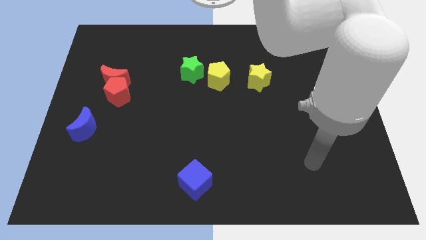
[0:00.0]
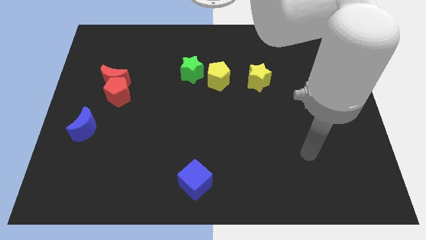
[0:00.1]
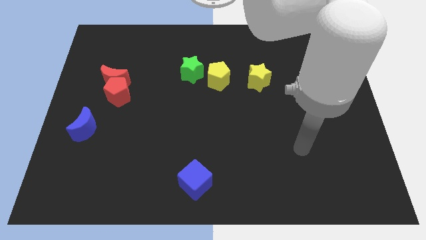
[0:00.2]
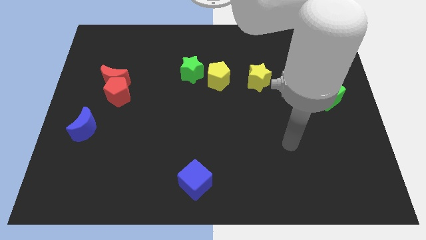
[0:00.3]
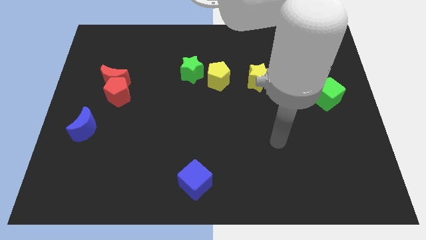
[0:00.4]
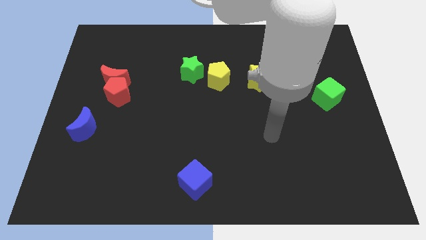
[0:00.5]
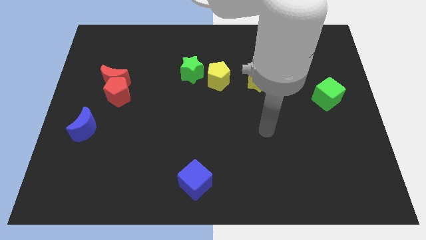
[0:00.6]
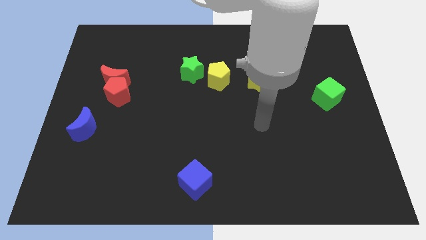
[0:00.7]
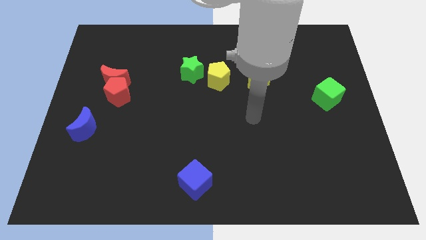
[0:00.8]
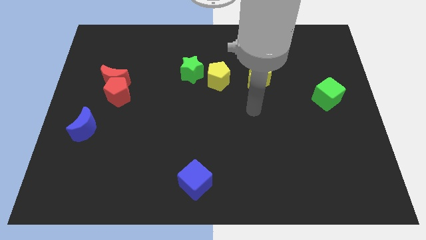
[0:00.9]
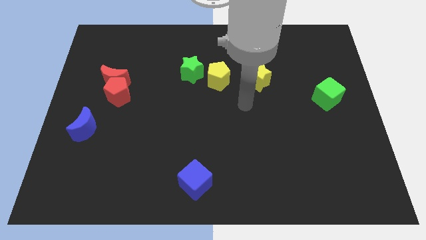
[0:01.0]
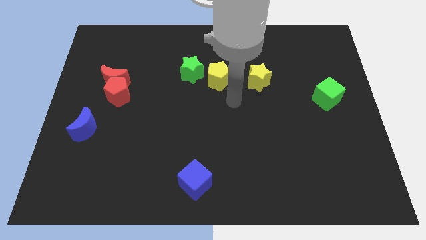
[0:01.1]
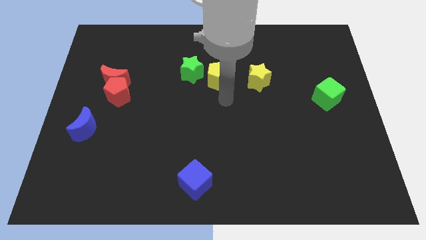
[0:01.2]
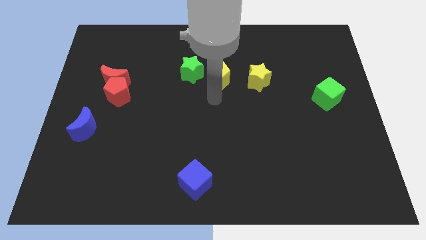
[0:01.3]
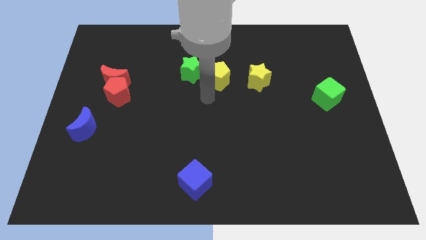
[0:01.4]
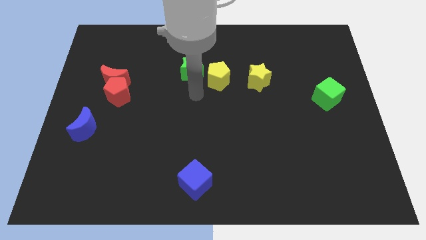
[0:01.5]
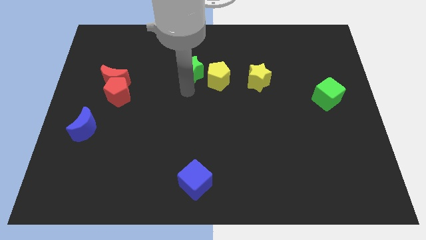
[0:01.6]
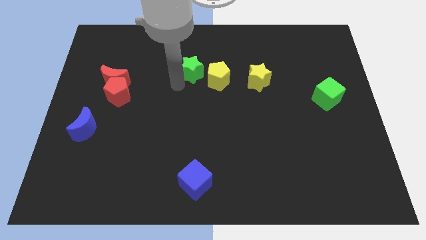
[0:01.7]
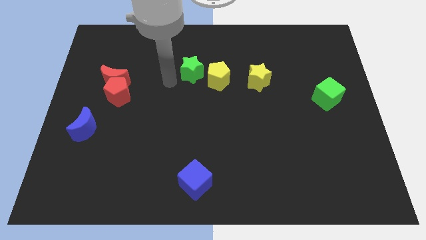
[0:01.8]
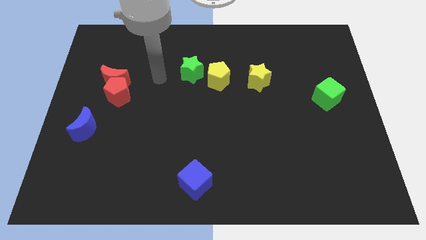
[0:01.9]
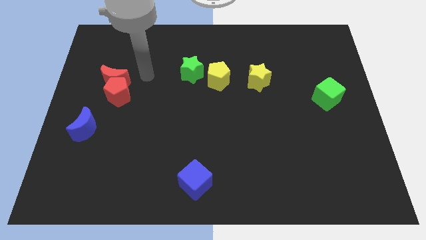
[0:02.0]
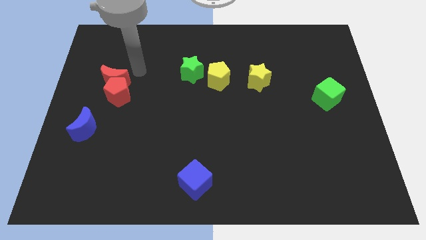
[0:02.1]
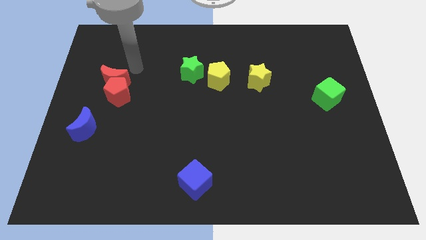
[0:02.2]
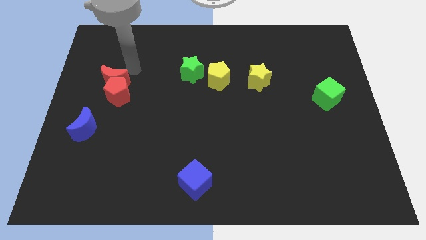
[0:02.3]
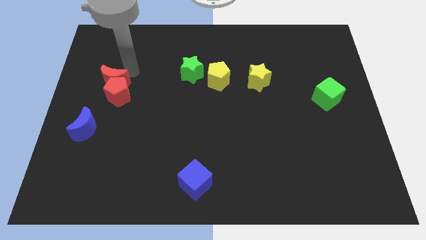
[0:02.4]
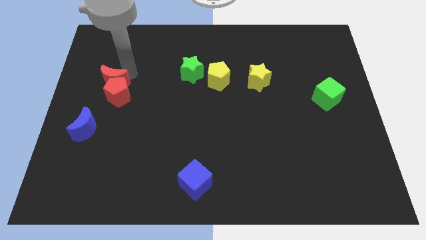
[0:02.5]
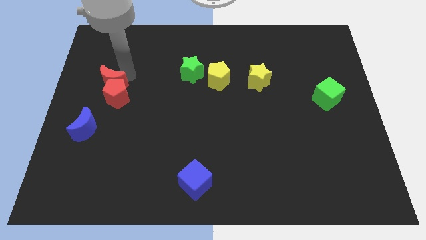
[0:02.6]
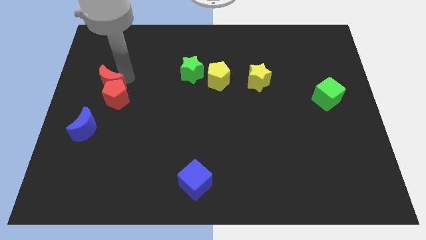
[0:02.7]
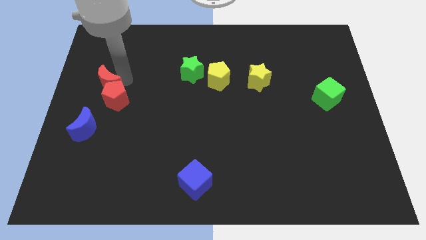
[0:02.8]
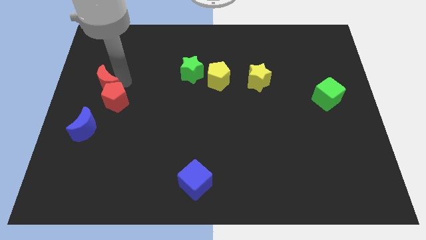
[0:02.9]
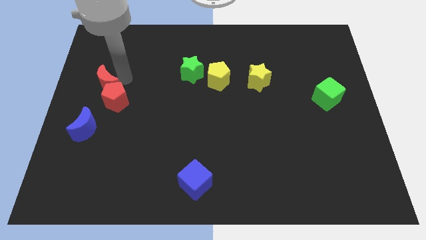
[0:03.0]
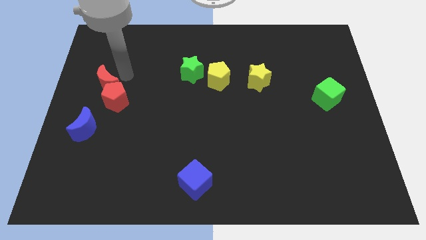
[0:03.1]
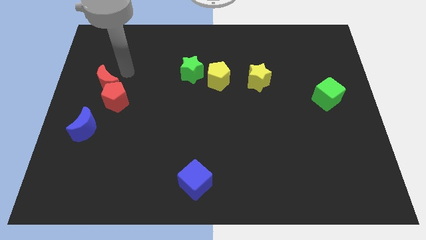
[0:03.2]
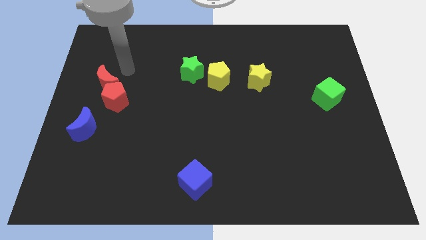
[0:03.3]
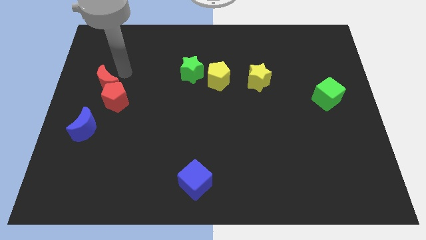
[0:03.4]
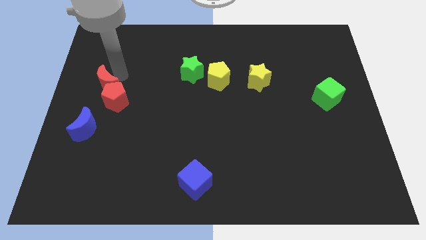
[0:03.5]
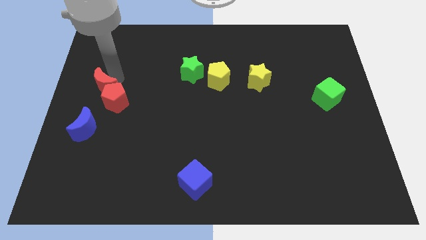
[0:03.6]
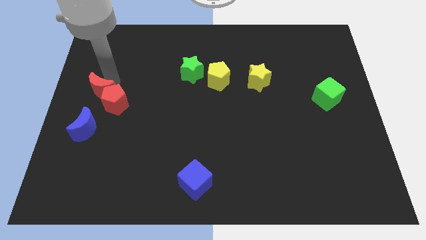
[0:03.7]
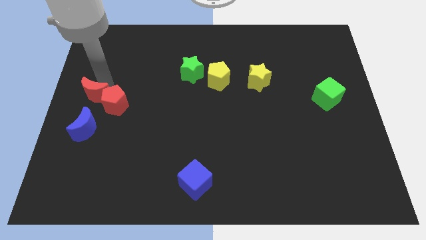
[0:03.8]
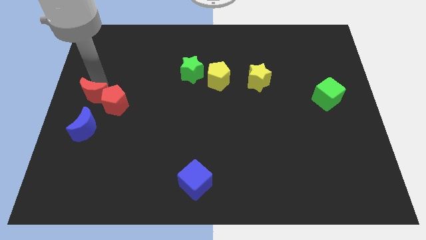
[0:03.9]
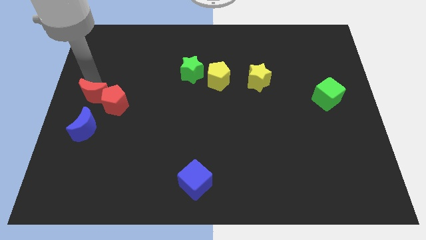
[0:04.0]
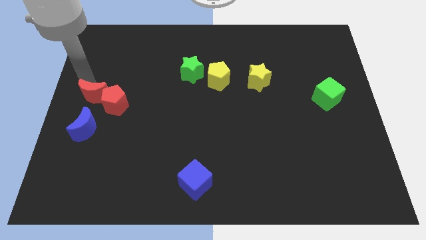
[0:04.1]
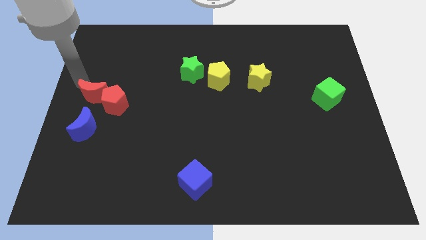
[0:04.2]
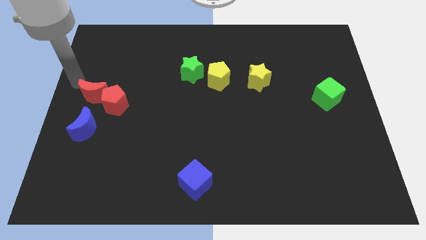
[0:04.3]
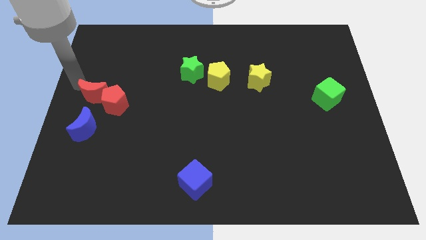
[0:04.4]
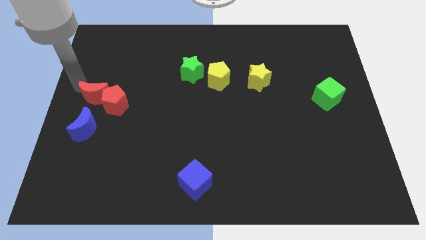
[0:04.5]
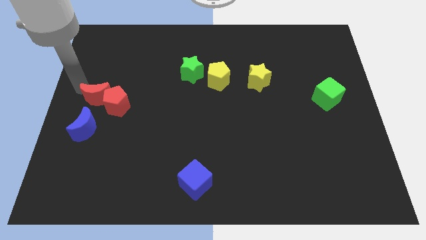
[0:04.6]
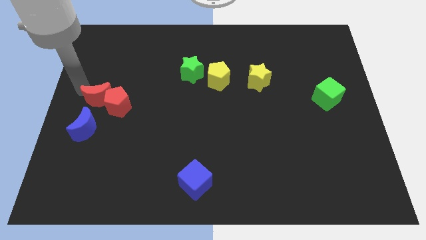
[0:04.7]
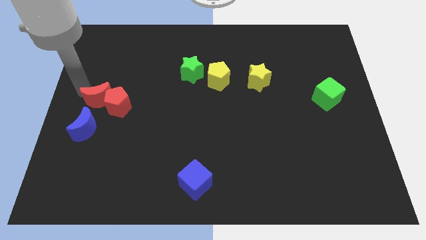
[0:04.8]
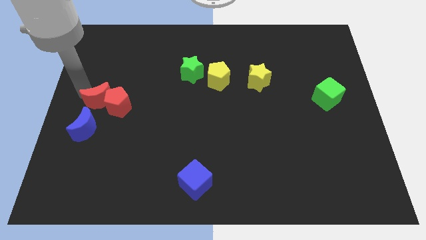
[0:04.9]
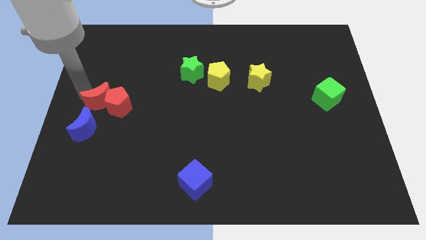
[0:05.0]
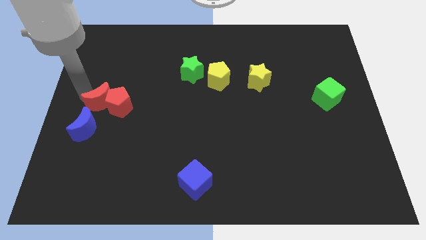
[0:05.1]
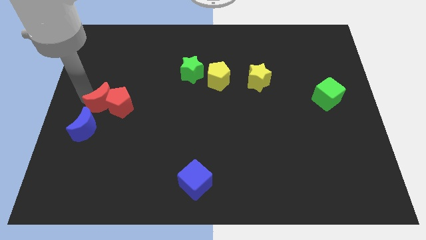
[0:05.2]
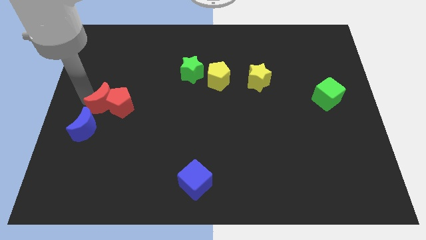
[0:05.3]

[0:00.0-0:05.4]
slide the red moon down slightly

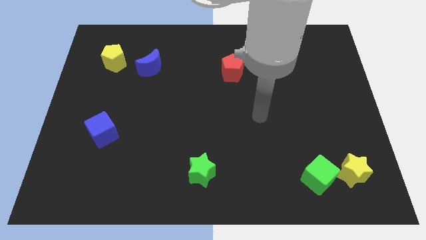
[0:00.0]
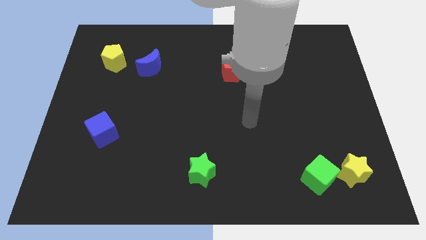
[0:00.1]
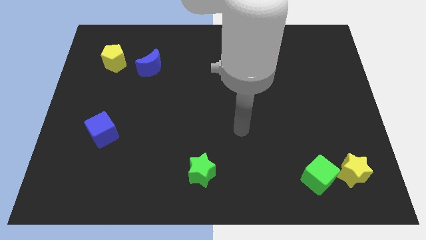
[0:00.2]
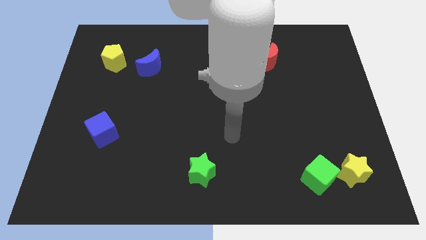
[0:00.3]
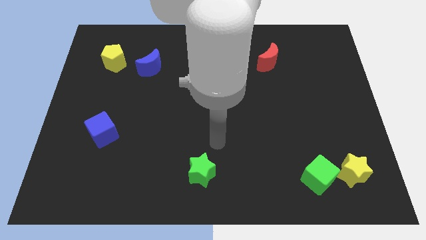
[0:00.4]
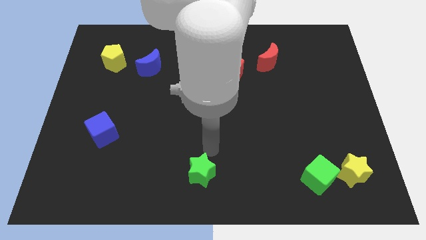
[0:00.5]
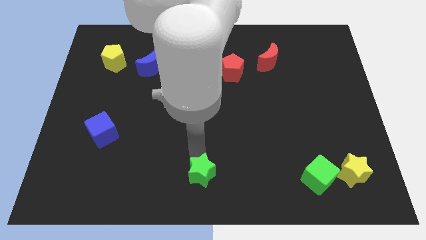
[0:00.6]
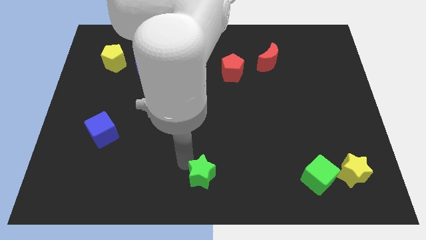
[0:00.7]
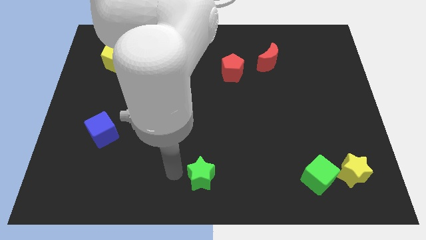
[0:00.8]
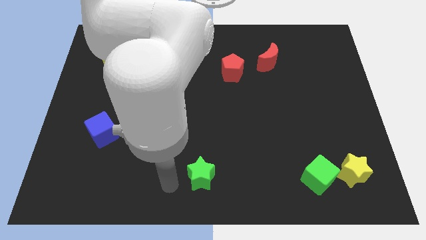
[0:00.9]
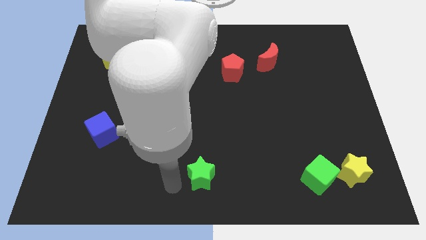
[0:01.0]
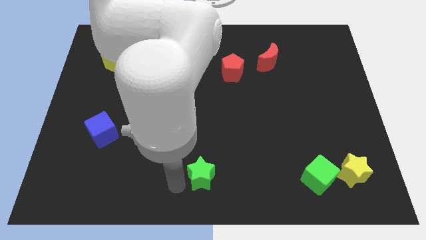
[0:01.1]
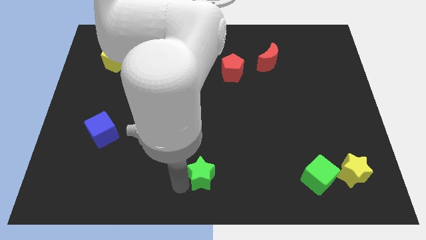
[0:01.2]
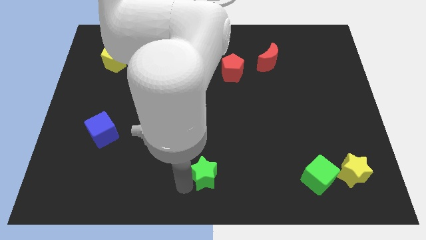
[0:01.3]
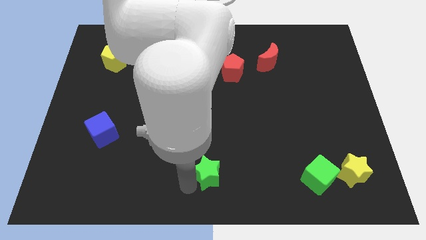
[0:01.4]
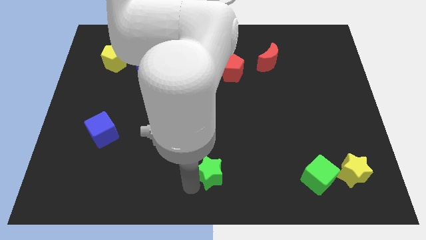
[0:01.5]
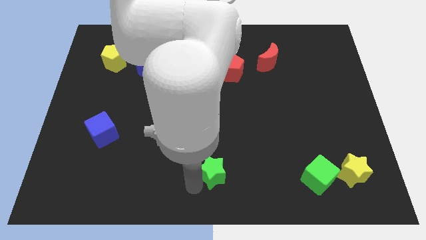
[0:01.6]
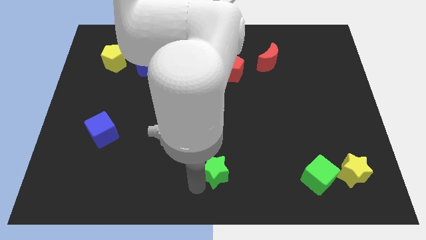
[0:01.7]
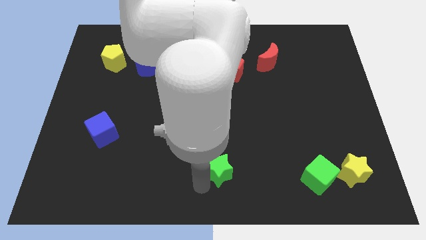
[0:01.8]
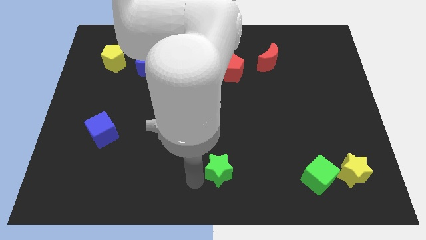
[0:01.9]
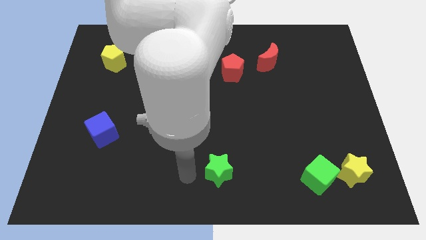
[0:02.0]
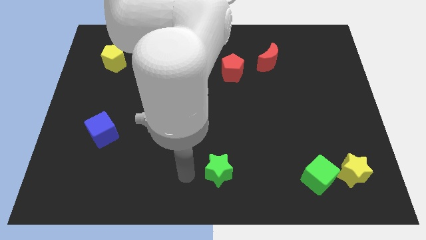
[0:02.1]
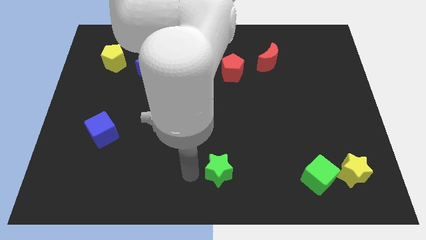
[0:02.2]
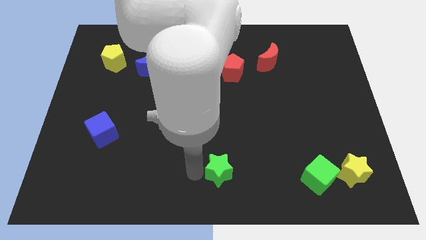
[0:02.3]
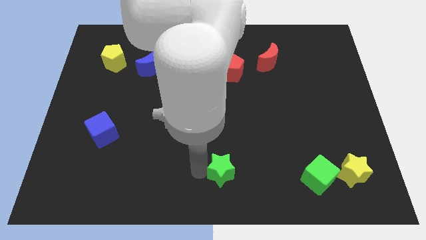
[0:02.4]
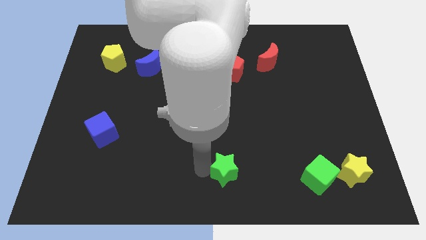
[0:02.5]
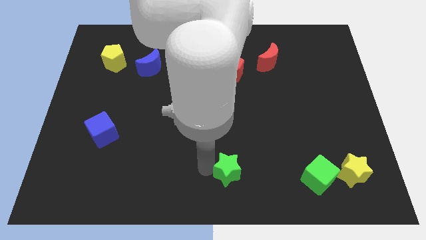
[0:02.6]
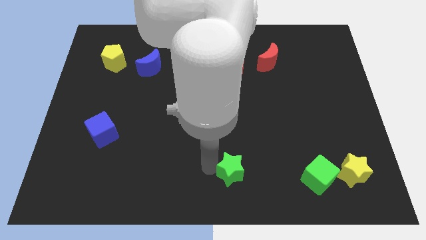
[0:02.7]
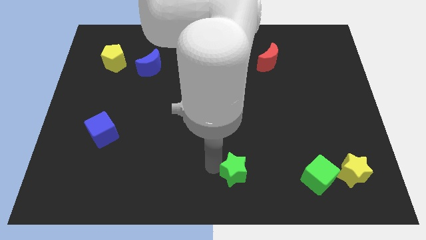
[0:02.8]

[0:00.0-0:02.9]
slide the green star slightly to the right
